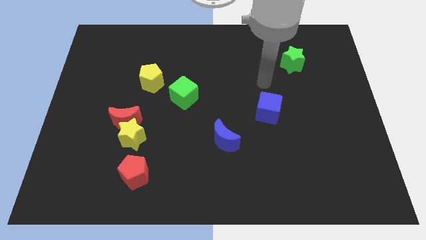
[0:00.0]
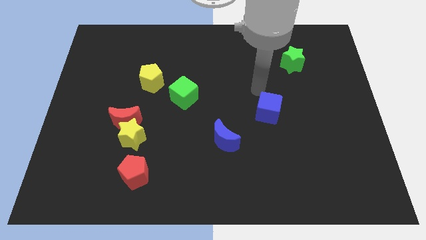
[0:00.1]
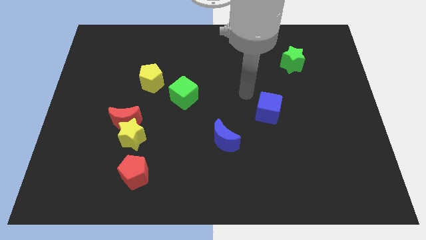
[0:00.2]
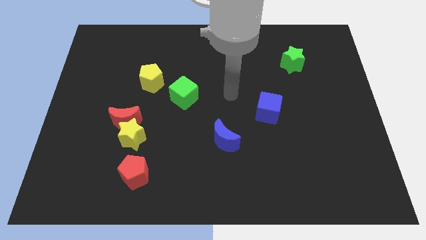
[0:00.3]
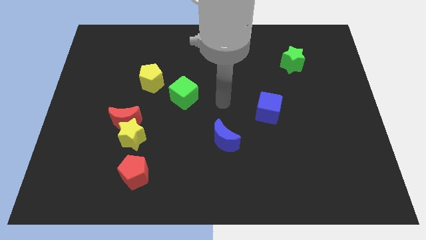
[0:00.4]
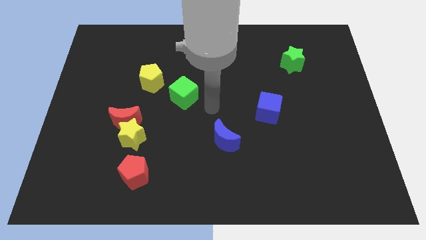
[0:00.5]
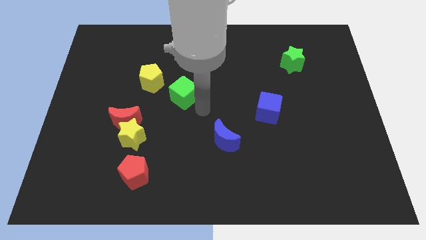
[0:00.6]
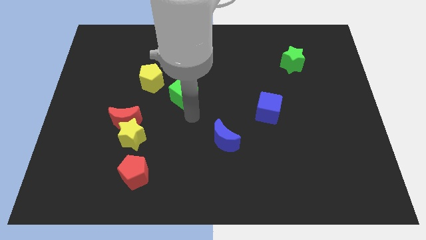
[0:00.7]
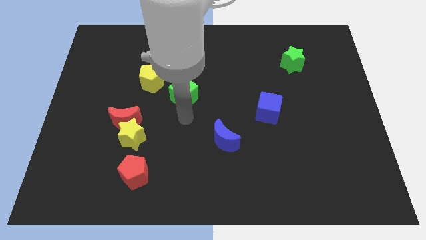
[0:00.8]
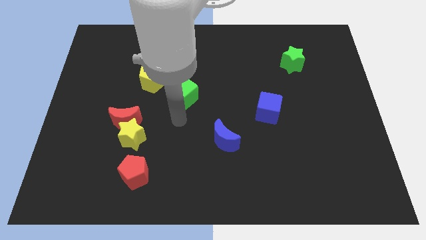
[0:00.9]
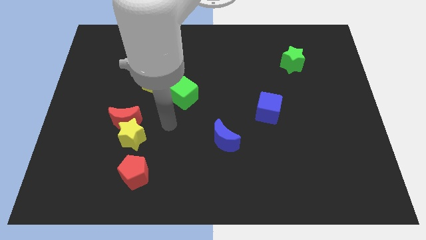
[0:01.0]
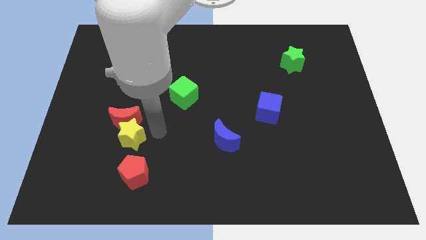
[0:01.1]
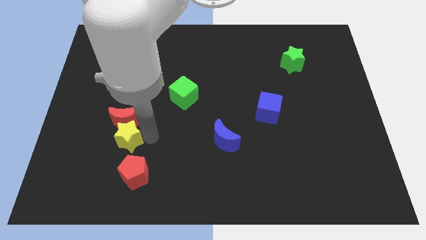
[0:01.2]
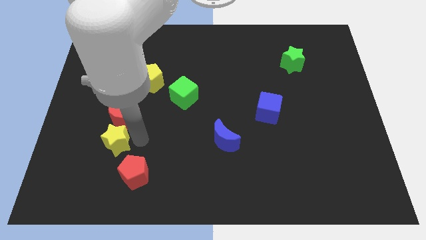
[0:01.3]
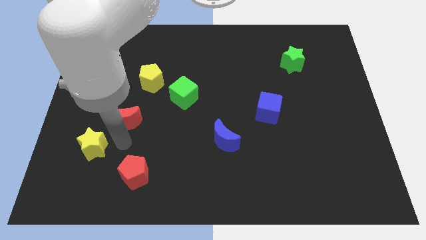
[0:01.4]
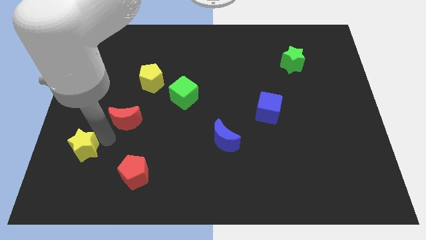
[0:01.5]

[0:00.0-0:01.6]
move the red moon away from the yellow star

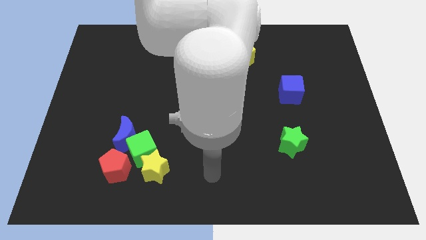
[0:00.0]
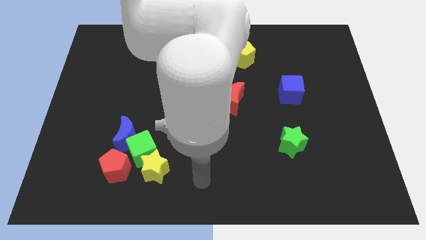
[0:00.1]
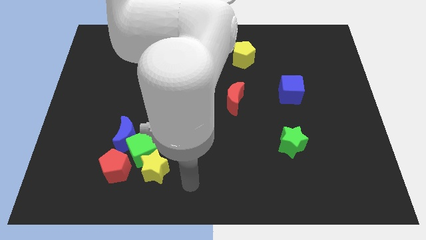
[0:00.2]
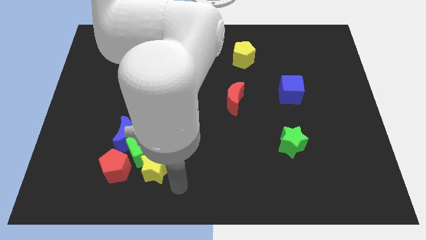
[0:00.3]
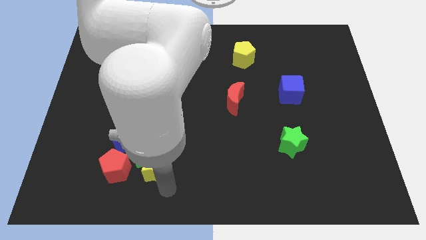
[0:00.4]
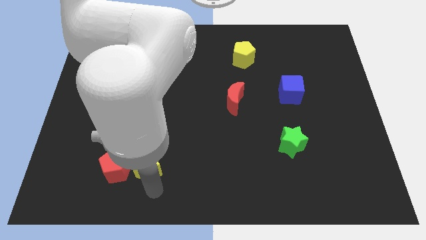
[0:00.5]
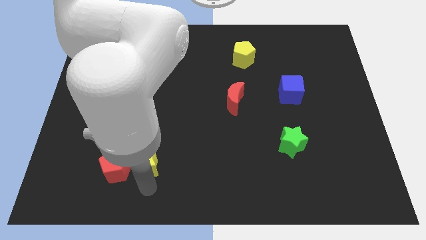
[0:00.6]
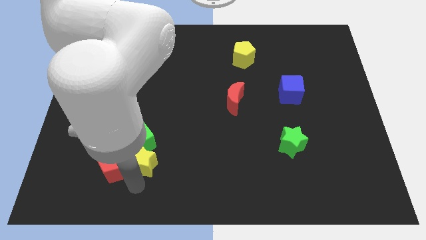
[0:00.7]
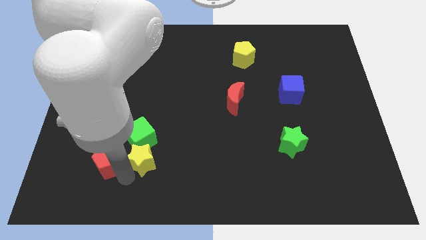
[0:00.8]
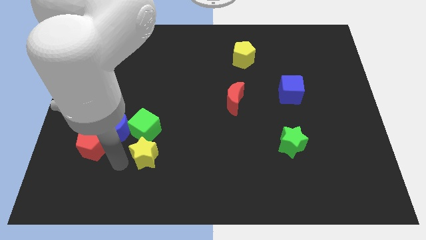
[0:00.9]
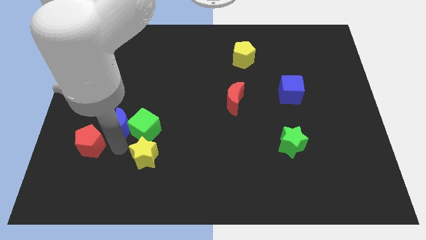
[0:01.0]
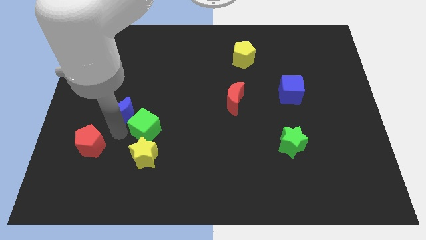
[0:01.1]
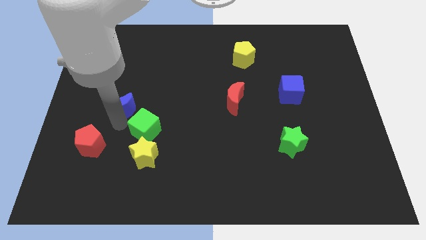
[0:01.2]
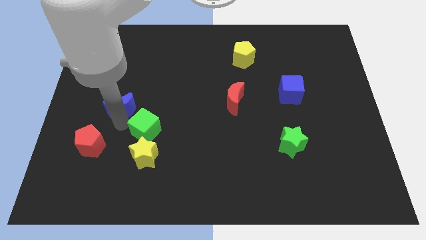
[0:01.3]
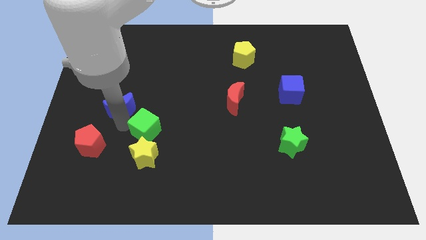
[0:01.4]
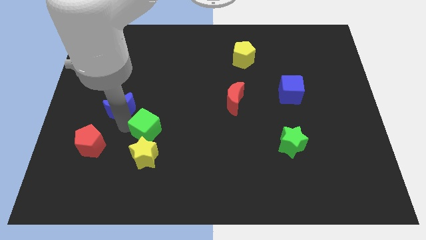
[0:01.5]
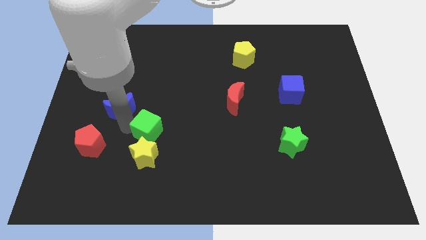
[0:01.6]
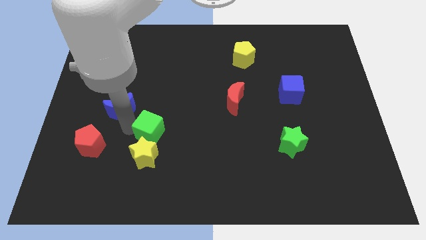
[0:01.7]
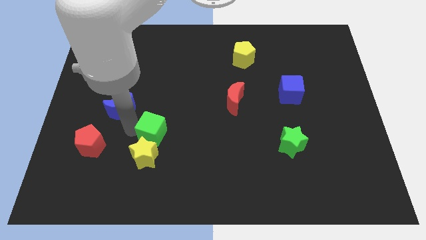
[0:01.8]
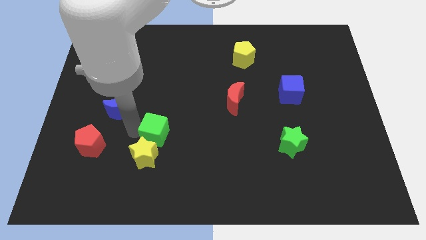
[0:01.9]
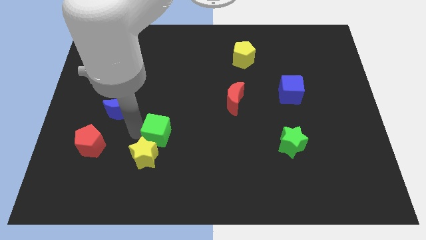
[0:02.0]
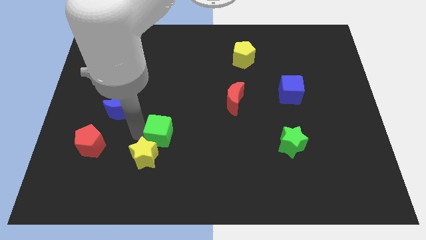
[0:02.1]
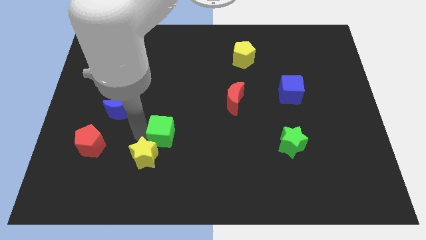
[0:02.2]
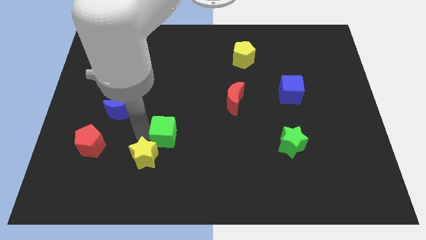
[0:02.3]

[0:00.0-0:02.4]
separate the green cube from the group

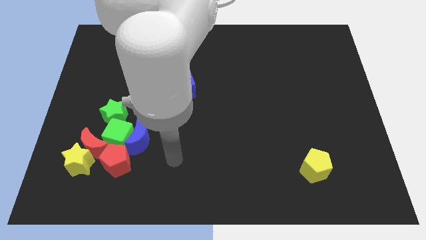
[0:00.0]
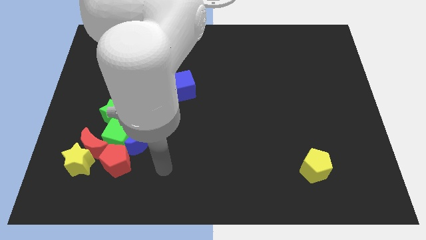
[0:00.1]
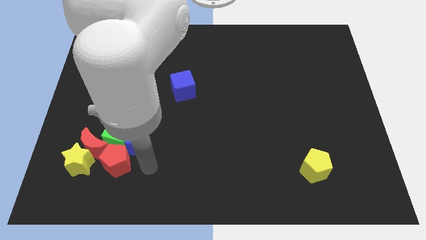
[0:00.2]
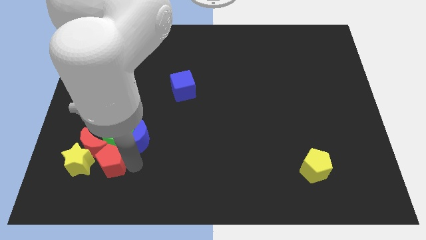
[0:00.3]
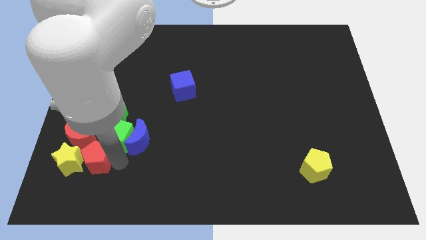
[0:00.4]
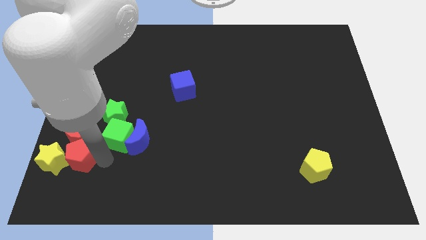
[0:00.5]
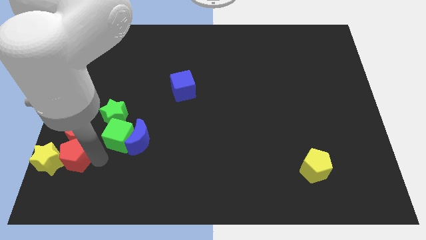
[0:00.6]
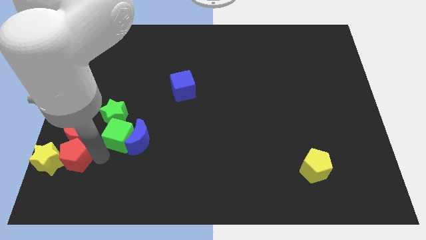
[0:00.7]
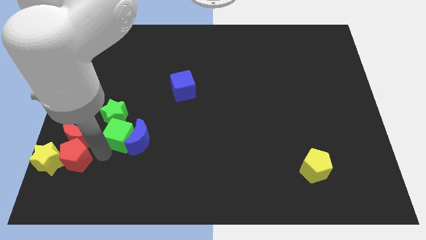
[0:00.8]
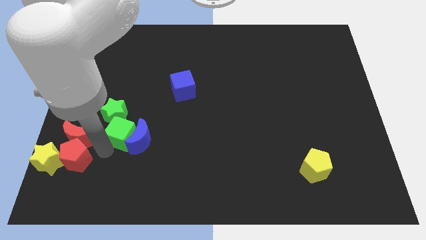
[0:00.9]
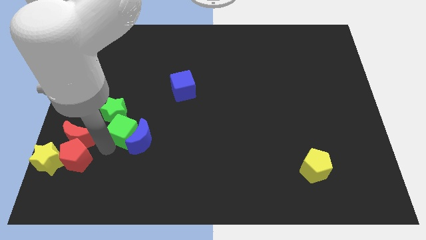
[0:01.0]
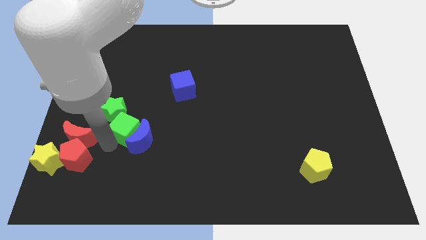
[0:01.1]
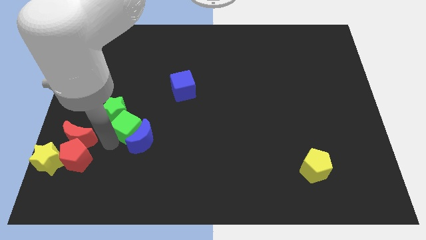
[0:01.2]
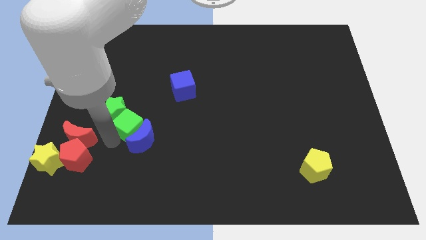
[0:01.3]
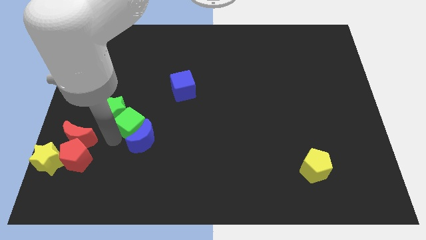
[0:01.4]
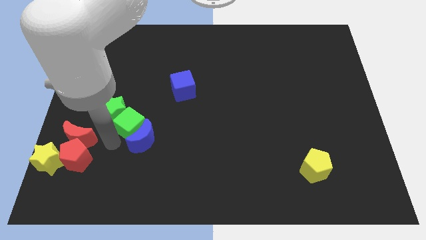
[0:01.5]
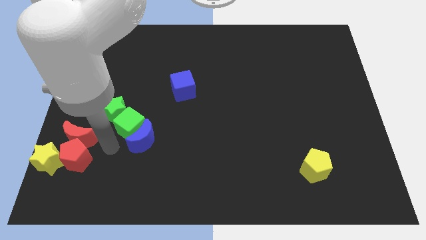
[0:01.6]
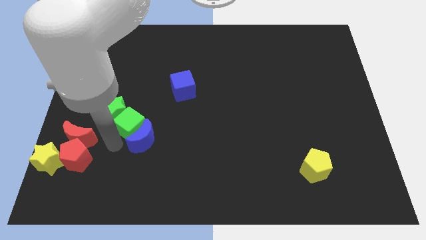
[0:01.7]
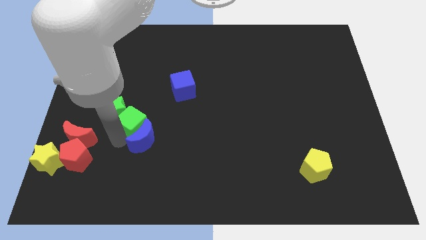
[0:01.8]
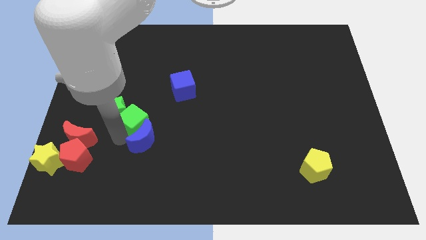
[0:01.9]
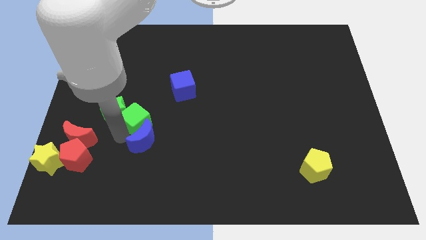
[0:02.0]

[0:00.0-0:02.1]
pull the green cube apart from the clump

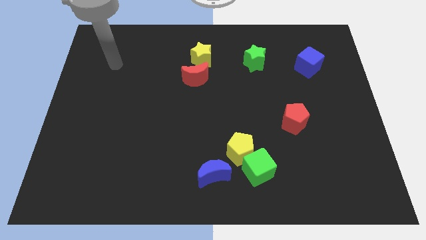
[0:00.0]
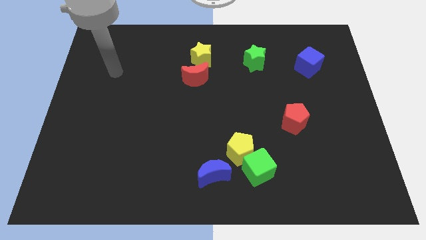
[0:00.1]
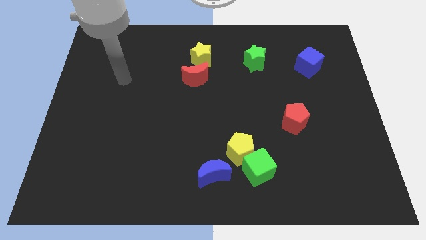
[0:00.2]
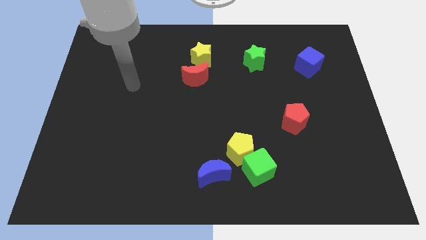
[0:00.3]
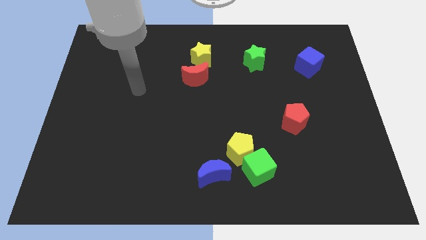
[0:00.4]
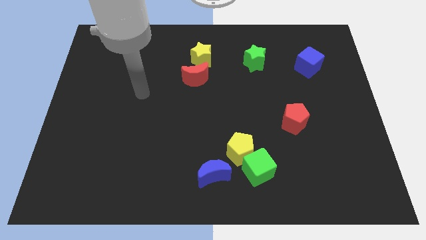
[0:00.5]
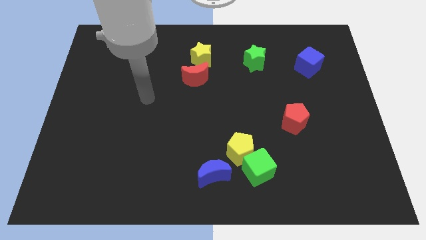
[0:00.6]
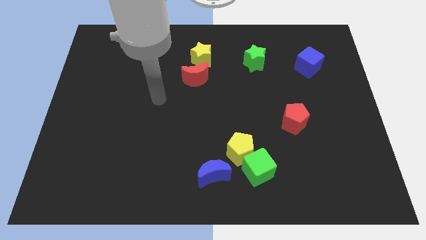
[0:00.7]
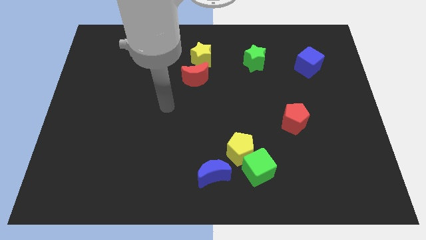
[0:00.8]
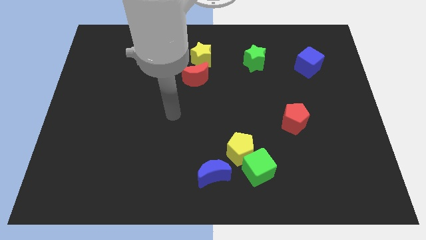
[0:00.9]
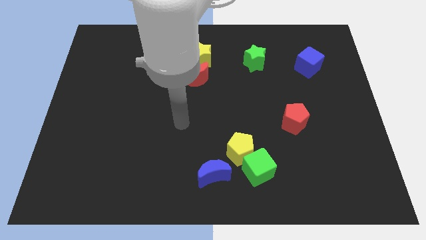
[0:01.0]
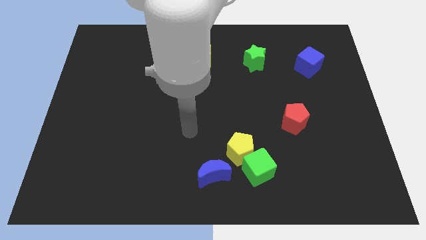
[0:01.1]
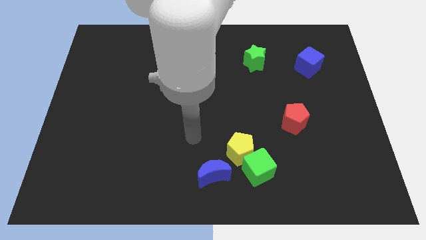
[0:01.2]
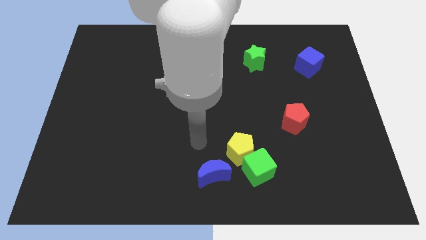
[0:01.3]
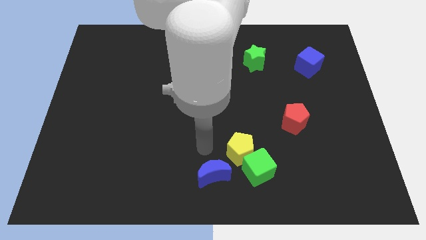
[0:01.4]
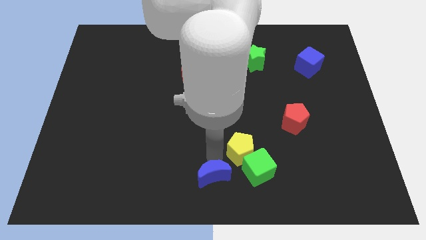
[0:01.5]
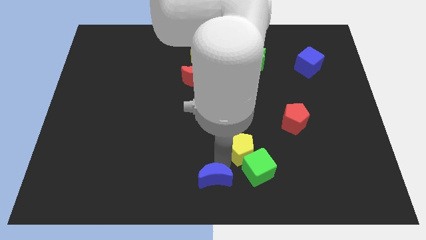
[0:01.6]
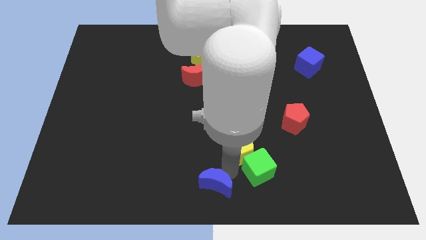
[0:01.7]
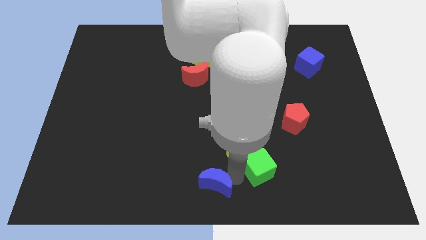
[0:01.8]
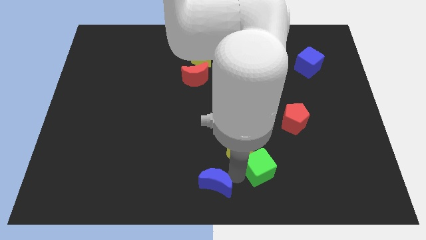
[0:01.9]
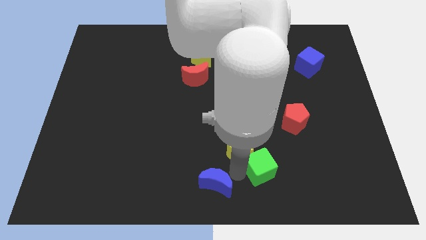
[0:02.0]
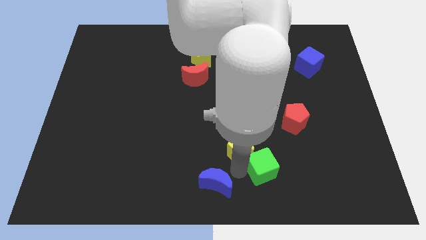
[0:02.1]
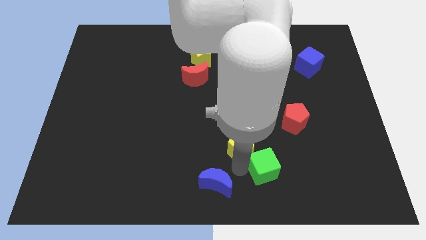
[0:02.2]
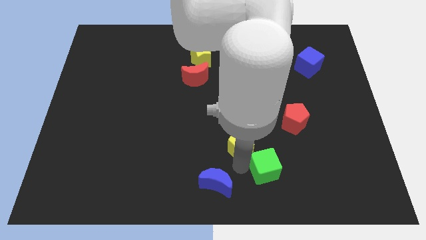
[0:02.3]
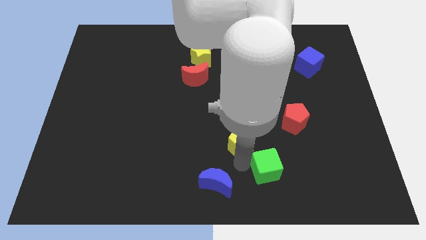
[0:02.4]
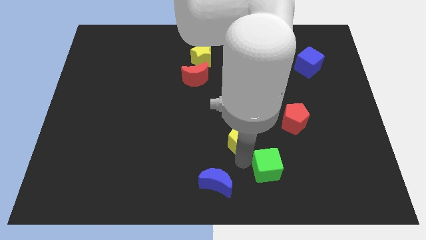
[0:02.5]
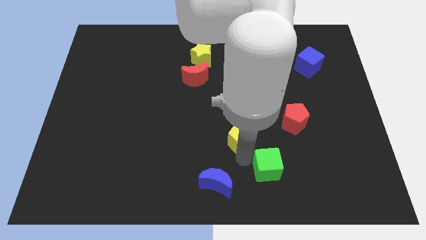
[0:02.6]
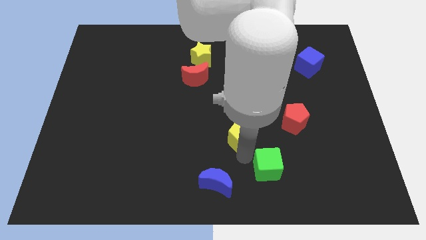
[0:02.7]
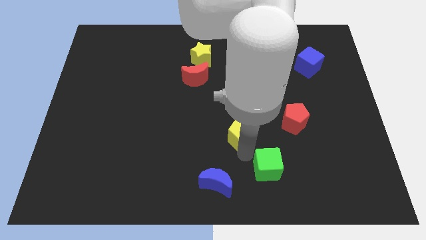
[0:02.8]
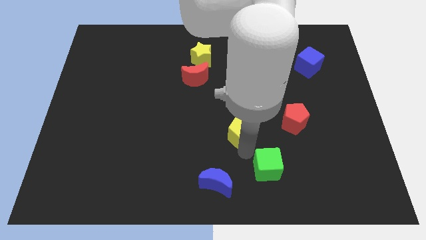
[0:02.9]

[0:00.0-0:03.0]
pull the yellow pentagon apart from the green cube and blue moon

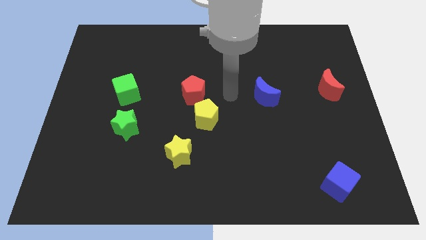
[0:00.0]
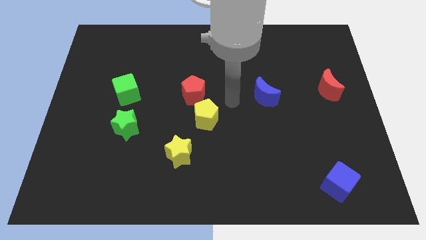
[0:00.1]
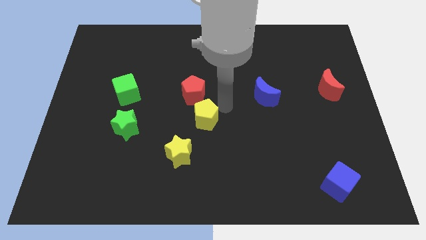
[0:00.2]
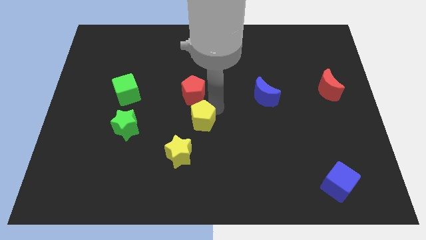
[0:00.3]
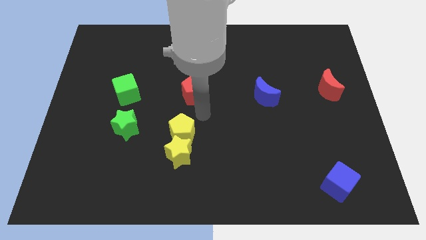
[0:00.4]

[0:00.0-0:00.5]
pull the red pentagon apart from the yellow pentagon
